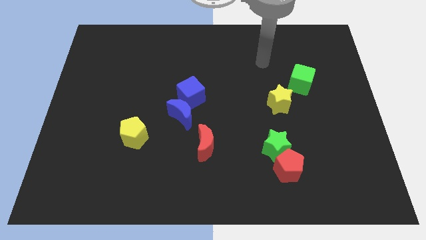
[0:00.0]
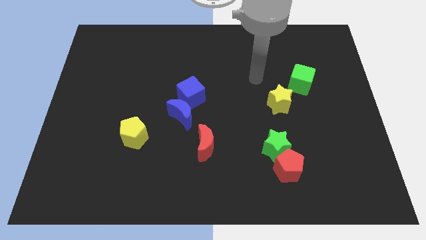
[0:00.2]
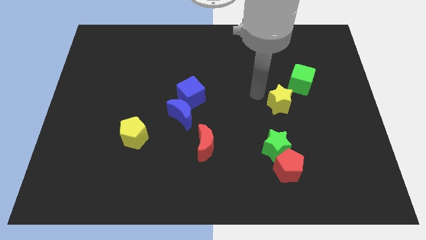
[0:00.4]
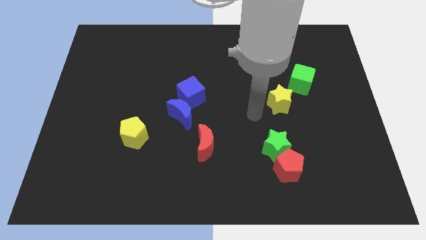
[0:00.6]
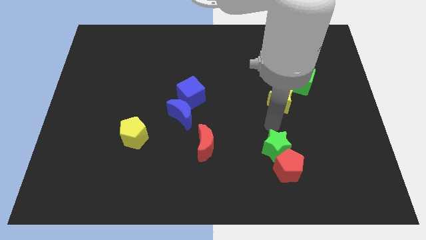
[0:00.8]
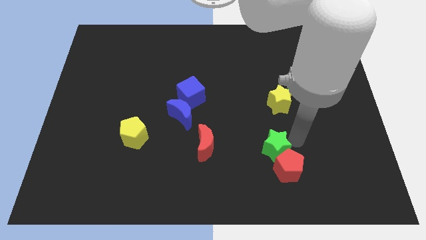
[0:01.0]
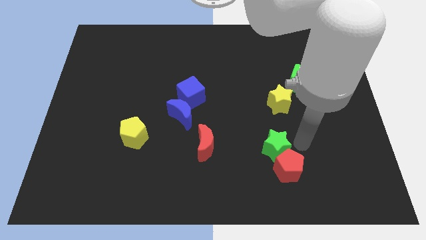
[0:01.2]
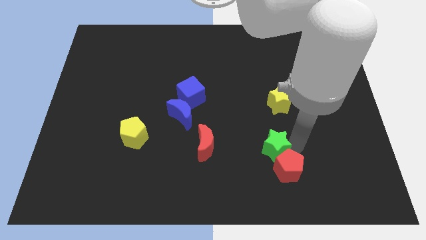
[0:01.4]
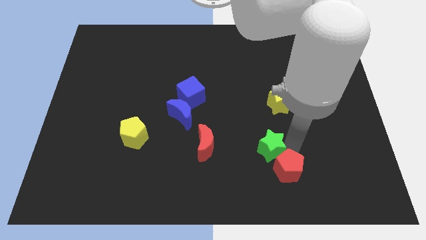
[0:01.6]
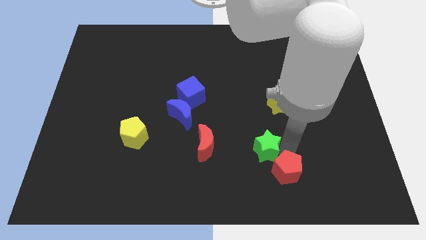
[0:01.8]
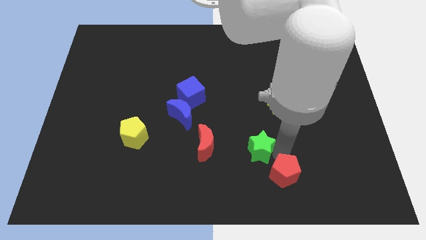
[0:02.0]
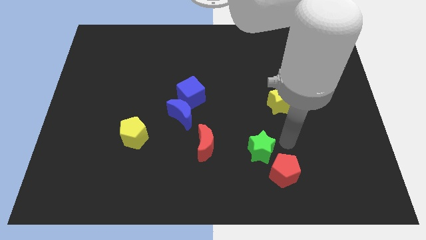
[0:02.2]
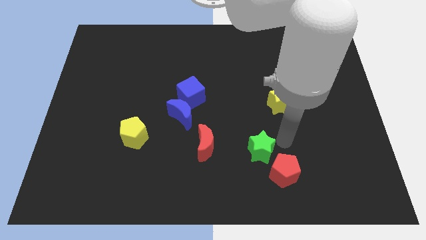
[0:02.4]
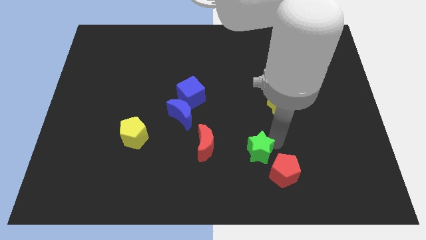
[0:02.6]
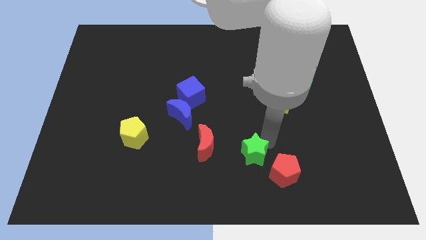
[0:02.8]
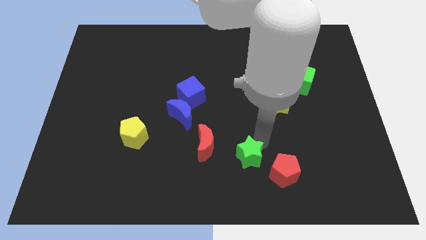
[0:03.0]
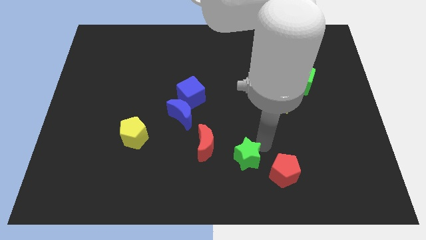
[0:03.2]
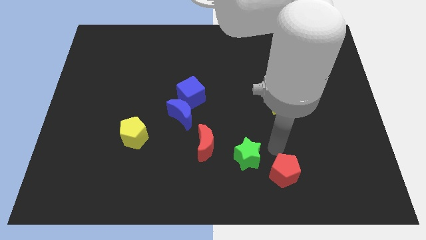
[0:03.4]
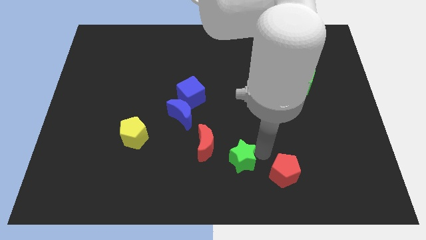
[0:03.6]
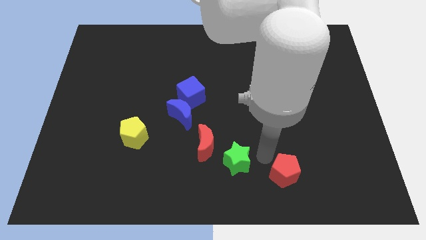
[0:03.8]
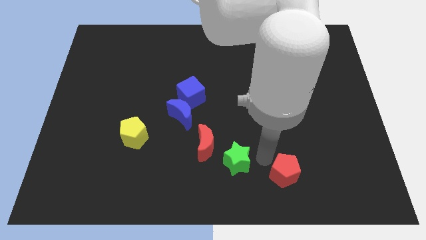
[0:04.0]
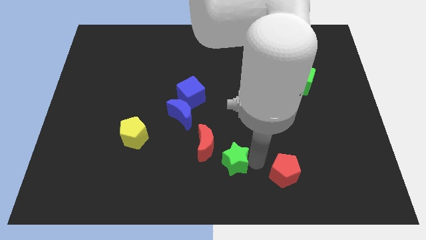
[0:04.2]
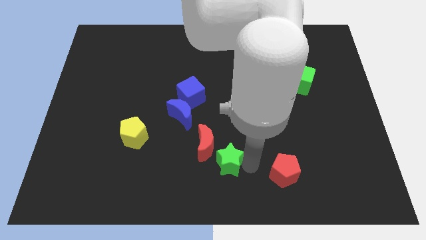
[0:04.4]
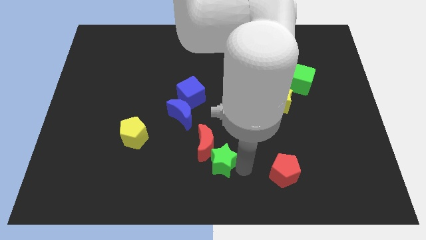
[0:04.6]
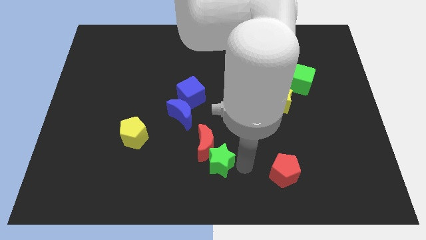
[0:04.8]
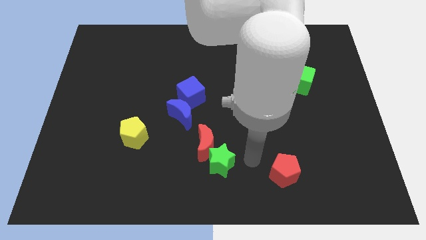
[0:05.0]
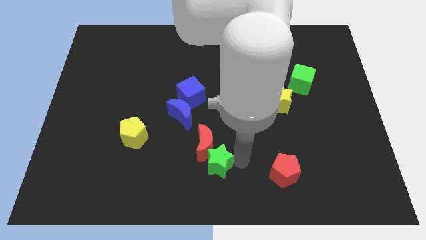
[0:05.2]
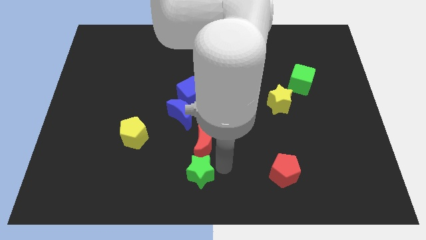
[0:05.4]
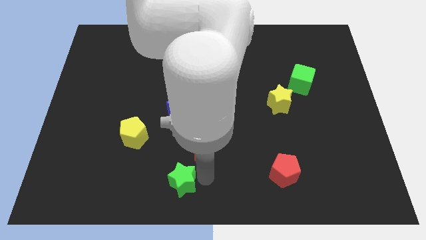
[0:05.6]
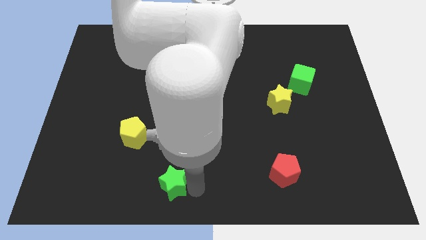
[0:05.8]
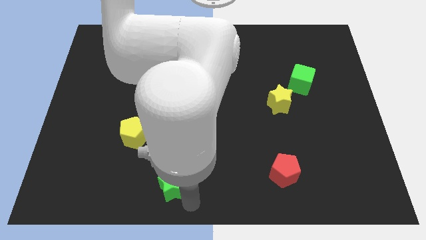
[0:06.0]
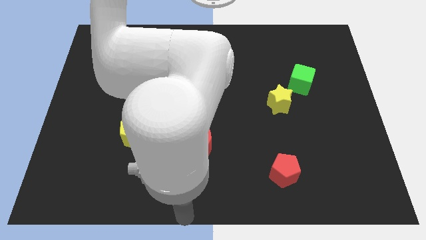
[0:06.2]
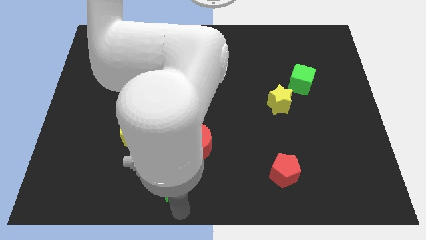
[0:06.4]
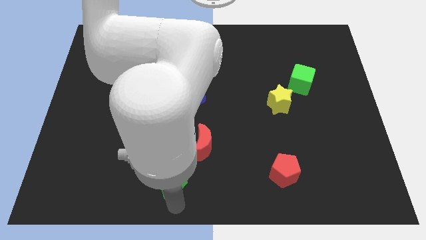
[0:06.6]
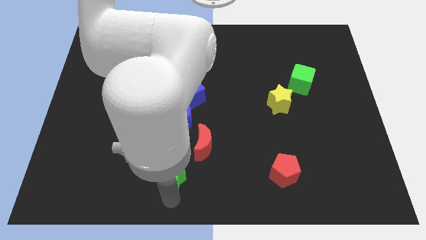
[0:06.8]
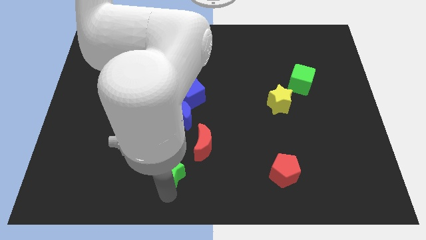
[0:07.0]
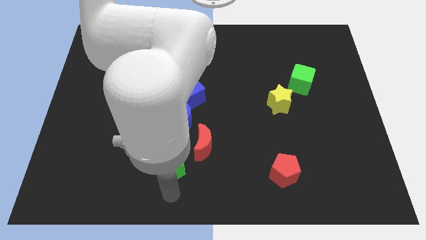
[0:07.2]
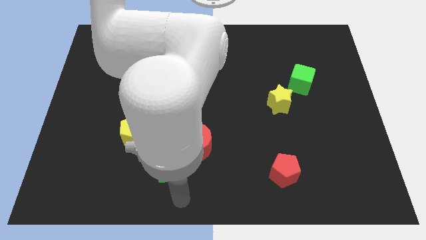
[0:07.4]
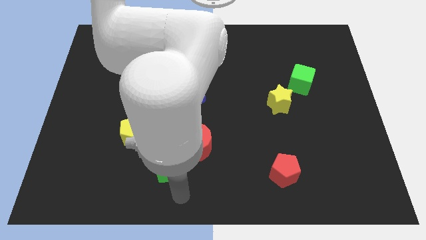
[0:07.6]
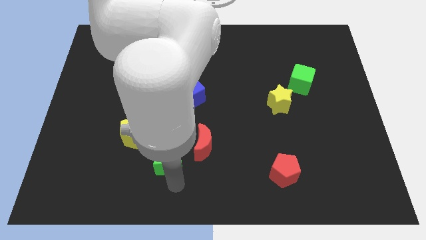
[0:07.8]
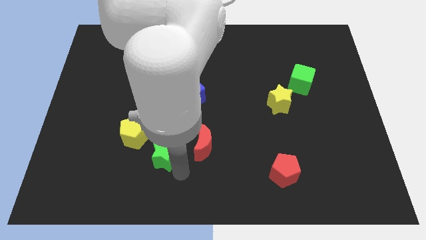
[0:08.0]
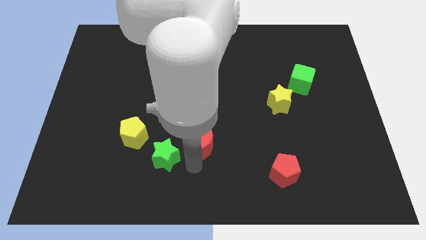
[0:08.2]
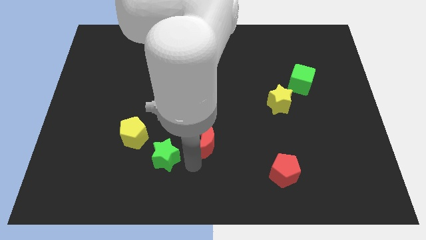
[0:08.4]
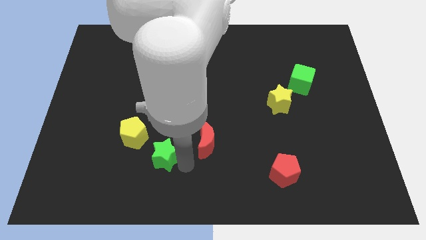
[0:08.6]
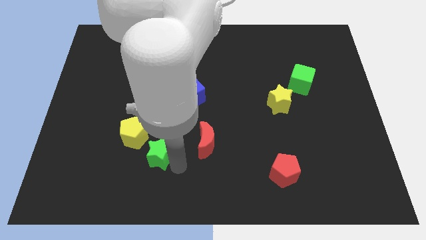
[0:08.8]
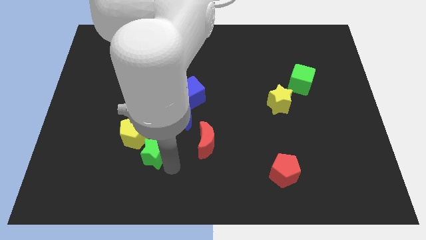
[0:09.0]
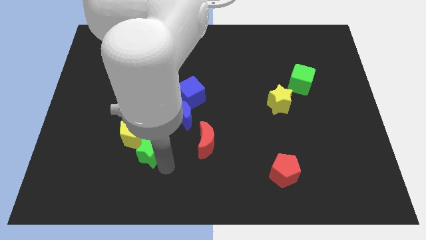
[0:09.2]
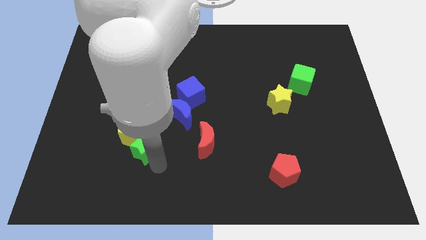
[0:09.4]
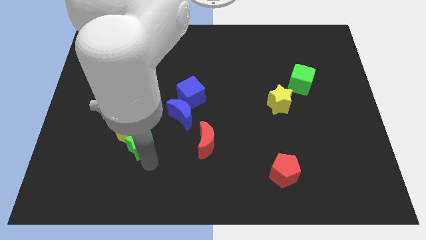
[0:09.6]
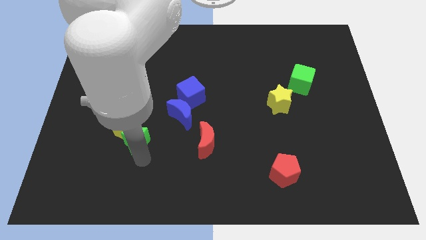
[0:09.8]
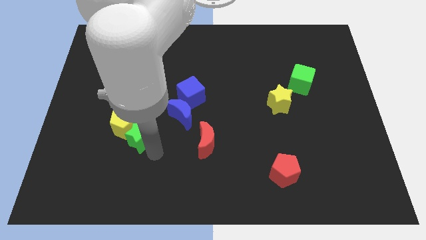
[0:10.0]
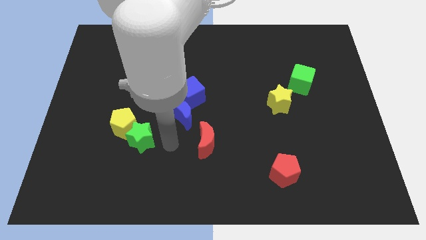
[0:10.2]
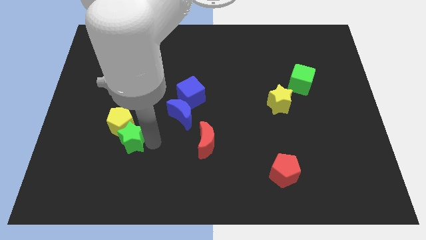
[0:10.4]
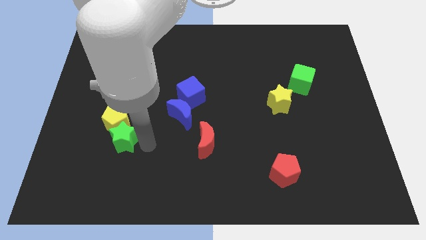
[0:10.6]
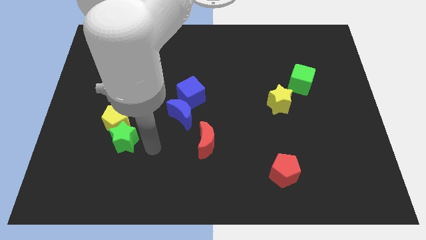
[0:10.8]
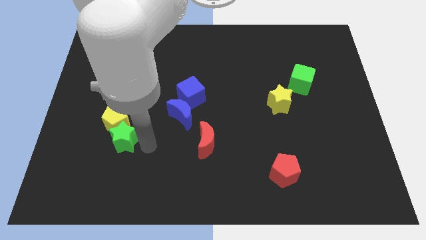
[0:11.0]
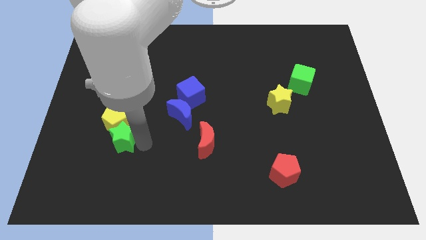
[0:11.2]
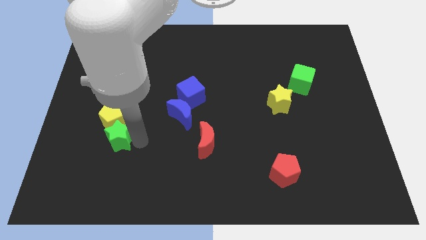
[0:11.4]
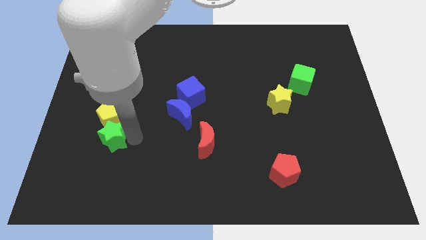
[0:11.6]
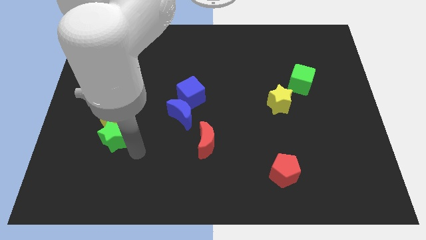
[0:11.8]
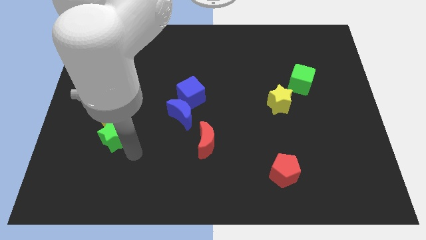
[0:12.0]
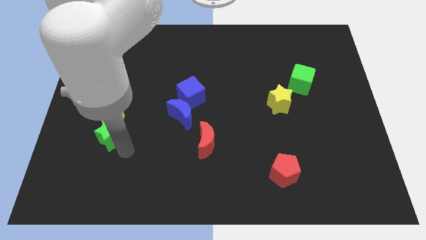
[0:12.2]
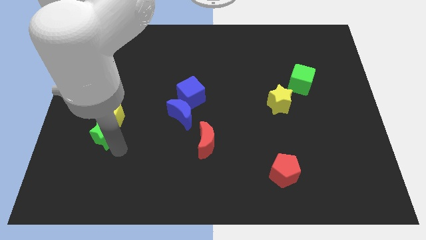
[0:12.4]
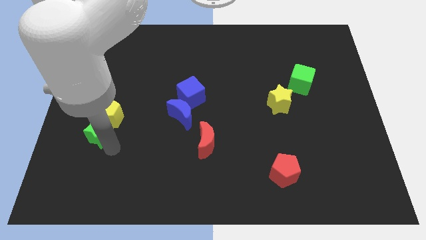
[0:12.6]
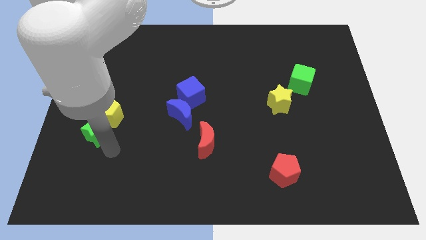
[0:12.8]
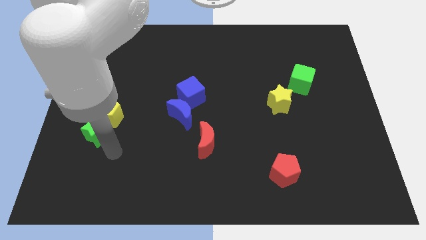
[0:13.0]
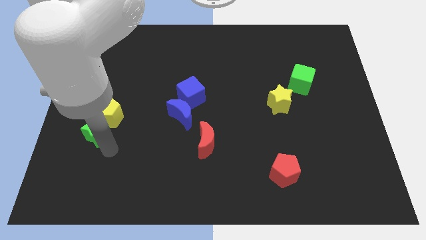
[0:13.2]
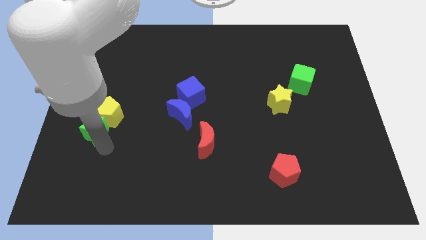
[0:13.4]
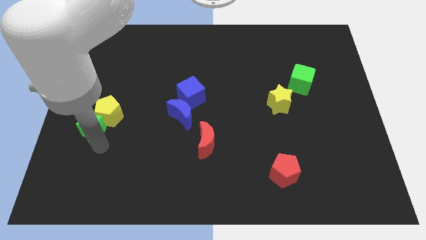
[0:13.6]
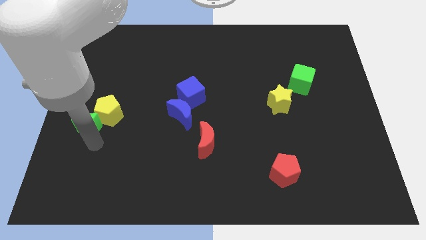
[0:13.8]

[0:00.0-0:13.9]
move the green star to the left side of the board
